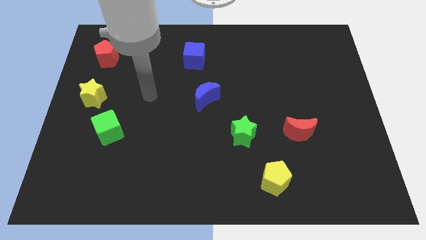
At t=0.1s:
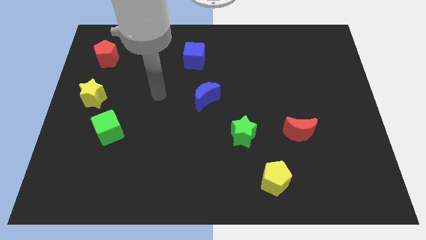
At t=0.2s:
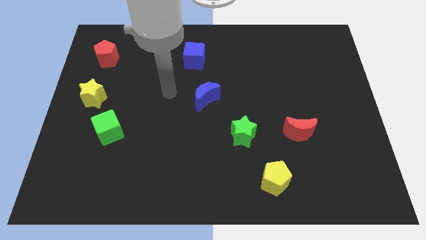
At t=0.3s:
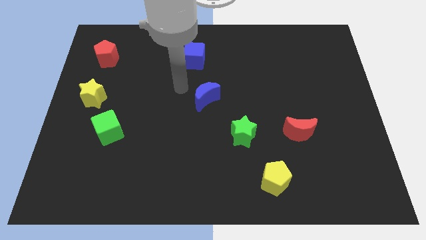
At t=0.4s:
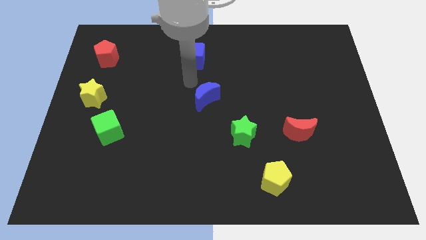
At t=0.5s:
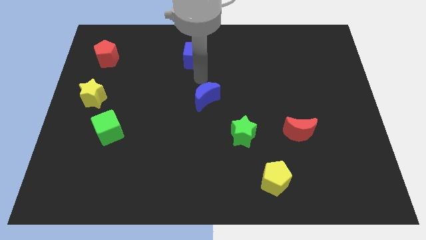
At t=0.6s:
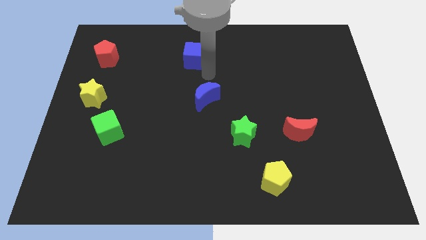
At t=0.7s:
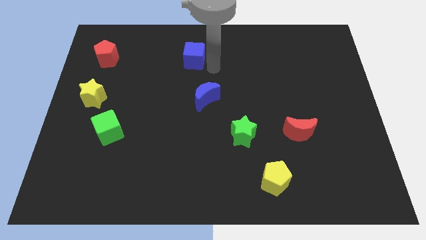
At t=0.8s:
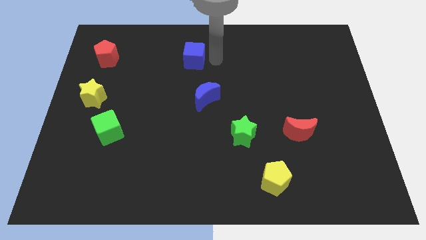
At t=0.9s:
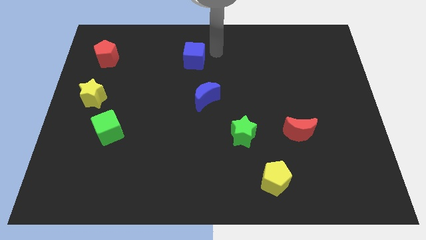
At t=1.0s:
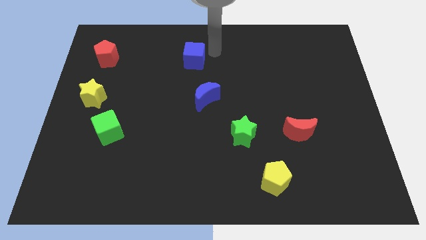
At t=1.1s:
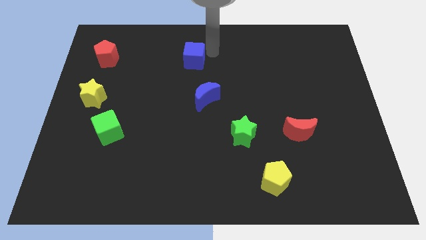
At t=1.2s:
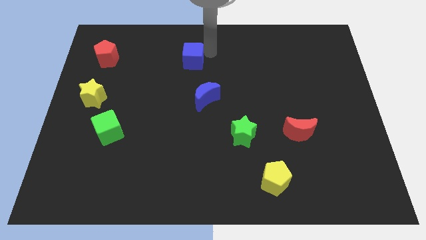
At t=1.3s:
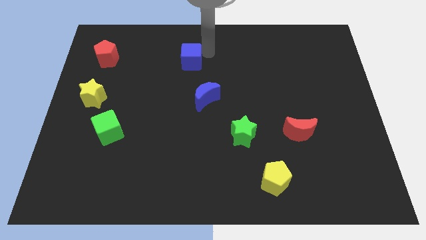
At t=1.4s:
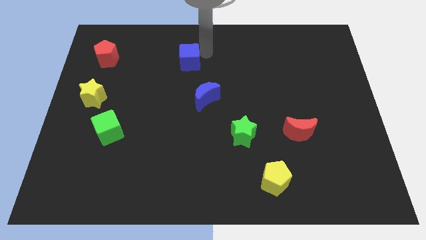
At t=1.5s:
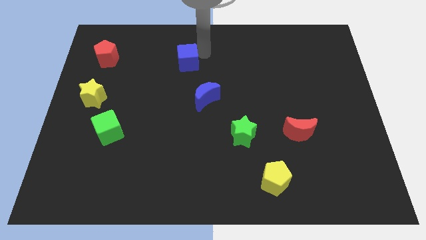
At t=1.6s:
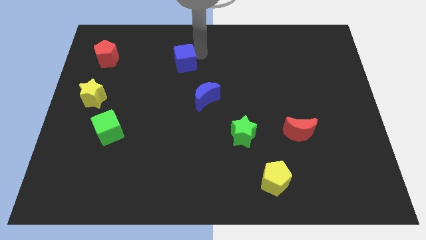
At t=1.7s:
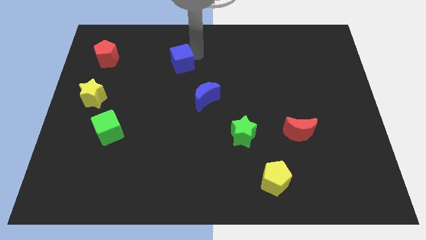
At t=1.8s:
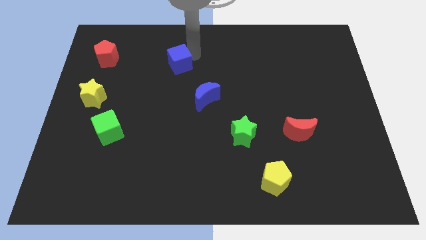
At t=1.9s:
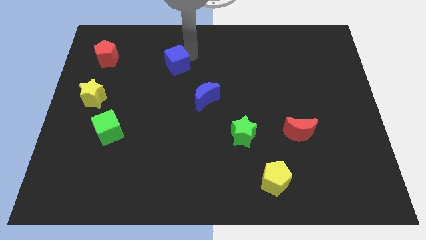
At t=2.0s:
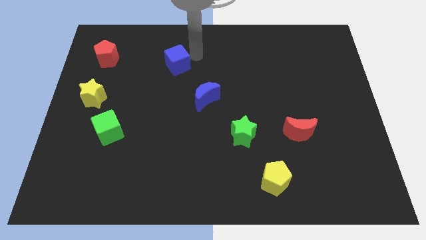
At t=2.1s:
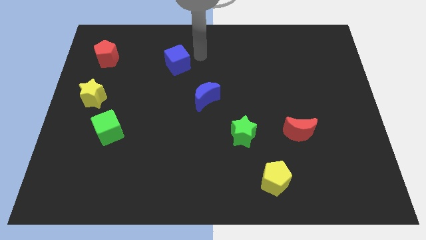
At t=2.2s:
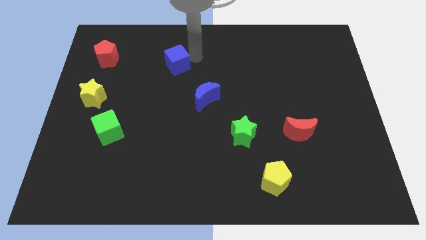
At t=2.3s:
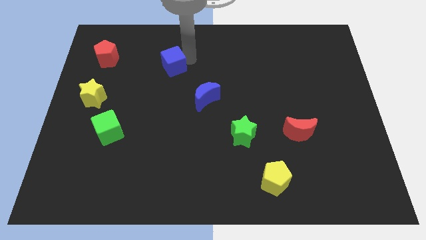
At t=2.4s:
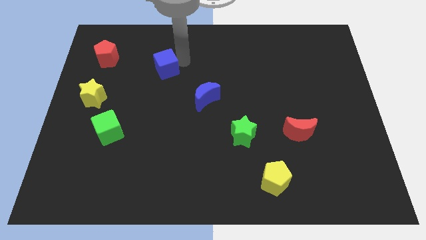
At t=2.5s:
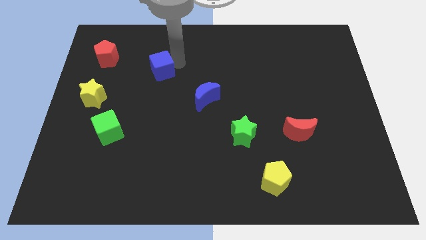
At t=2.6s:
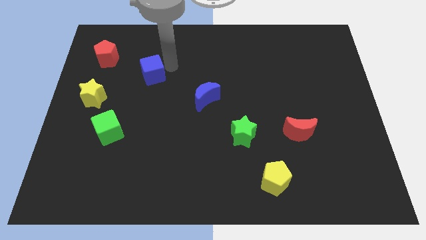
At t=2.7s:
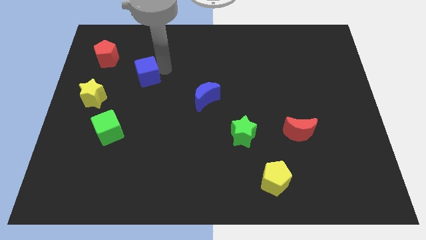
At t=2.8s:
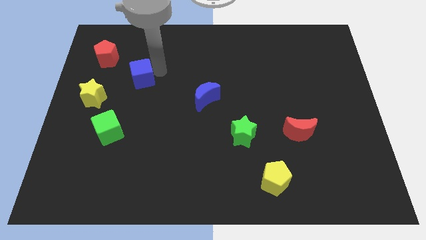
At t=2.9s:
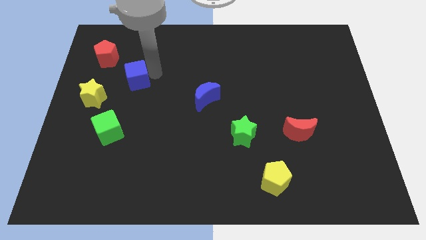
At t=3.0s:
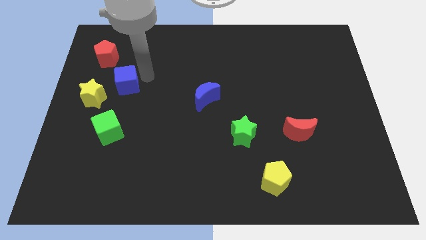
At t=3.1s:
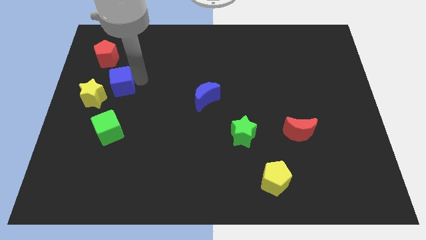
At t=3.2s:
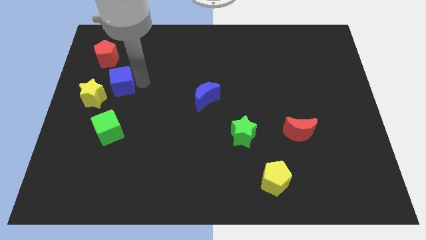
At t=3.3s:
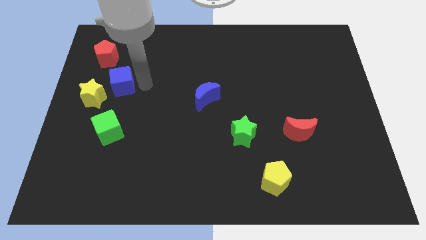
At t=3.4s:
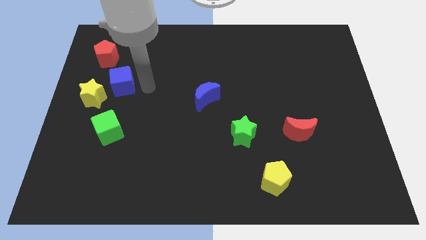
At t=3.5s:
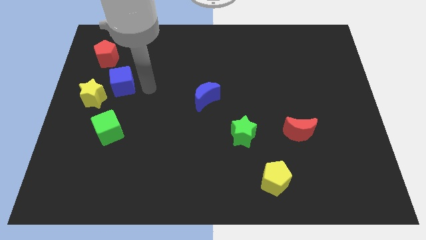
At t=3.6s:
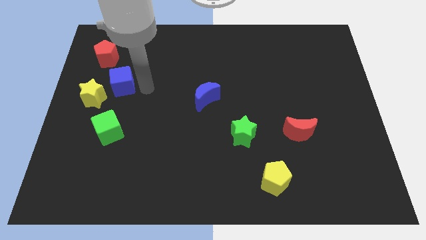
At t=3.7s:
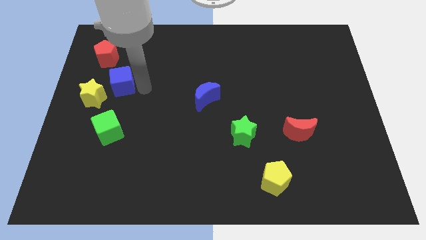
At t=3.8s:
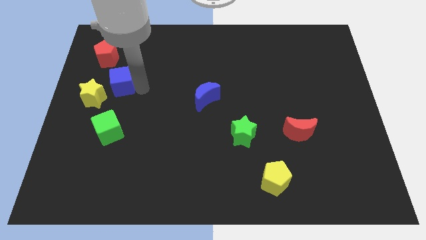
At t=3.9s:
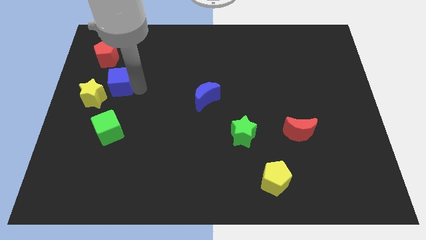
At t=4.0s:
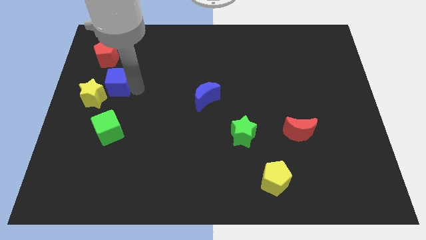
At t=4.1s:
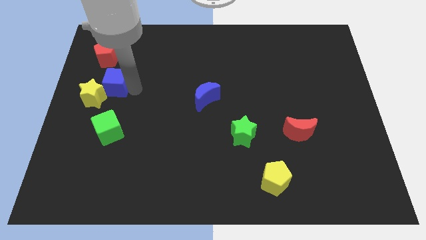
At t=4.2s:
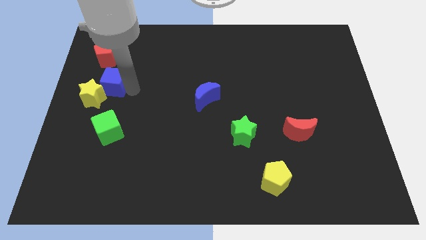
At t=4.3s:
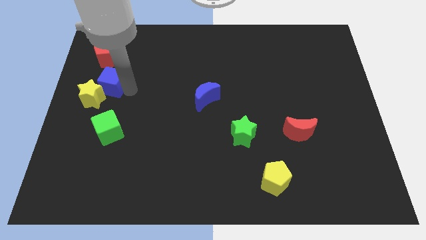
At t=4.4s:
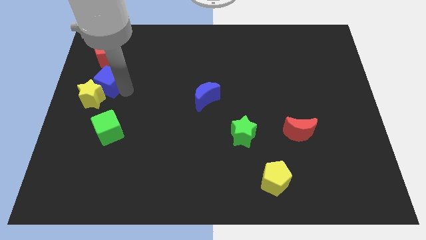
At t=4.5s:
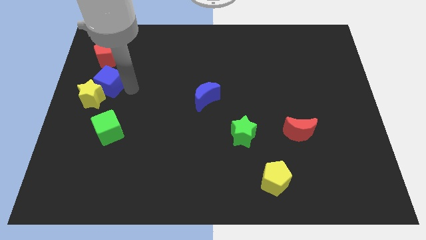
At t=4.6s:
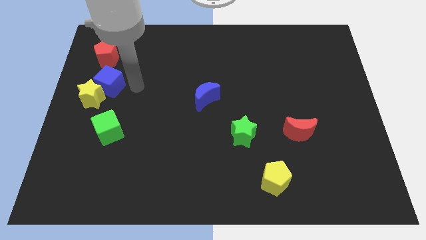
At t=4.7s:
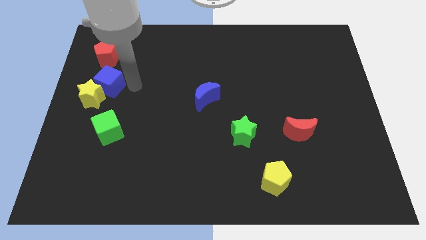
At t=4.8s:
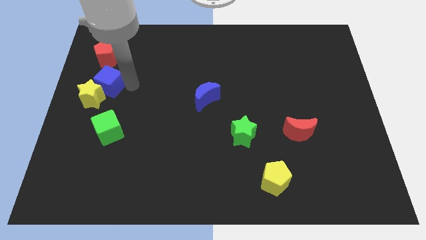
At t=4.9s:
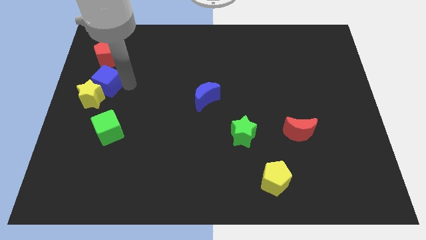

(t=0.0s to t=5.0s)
put the blue cube to the left side of the board

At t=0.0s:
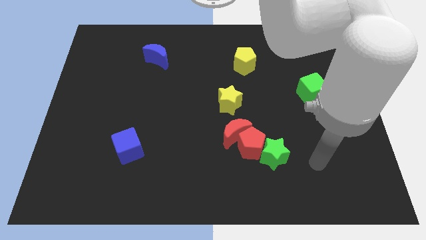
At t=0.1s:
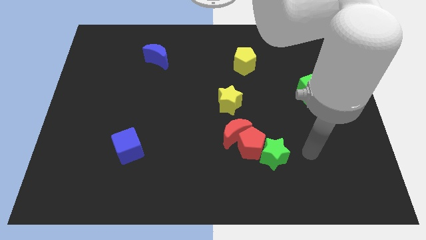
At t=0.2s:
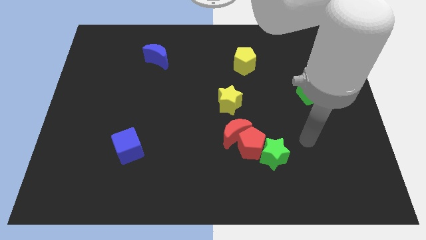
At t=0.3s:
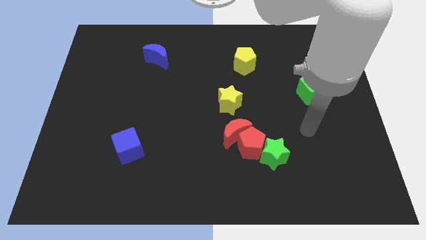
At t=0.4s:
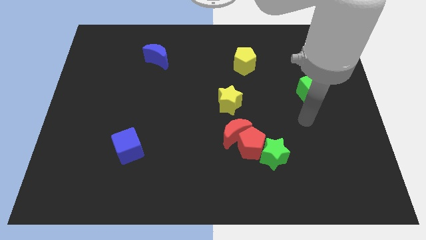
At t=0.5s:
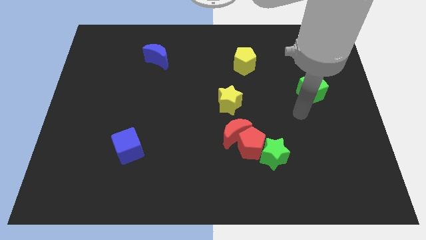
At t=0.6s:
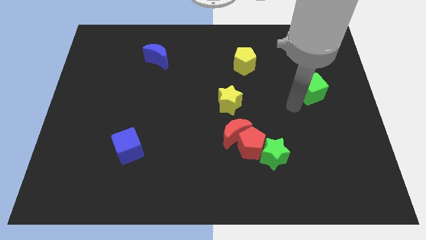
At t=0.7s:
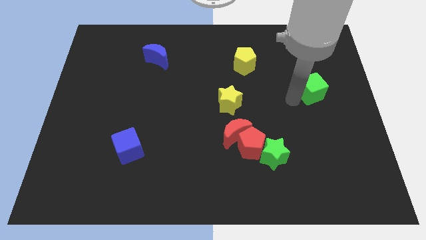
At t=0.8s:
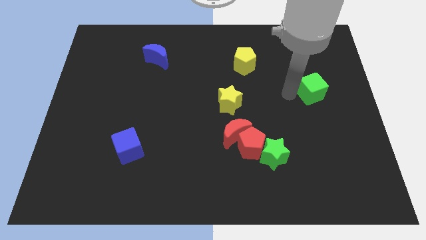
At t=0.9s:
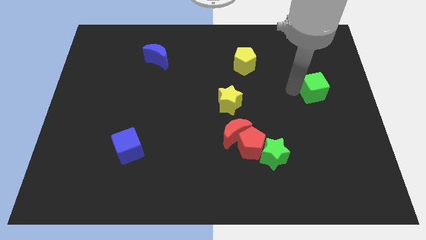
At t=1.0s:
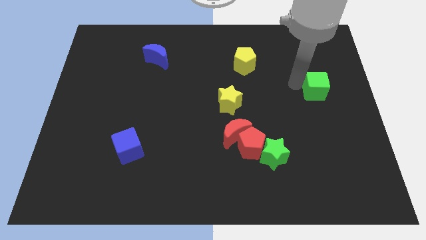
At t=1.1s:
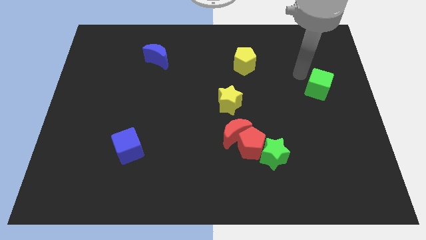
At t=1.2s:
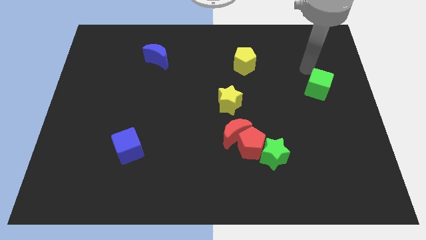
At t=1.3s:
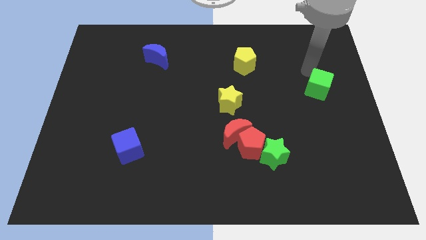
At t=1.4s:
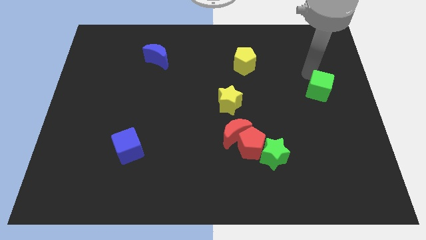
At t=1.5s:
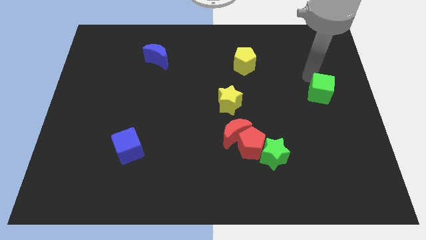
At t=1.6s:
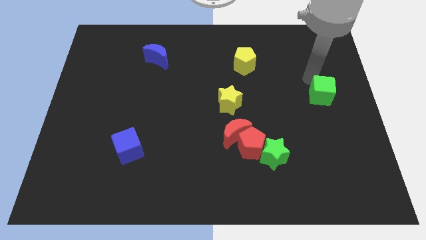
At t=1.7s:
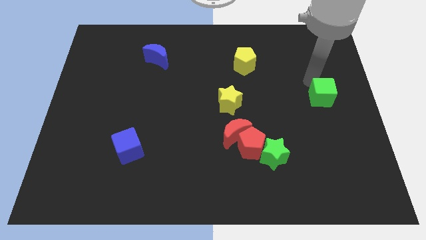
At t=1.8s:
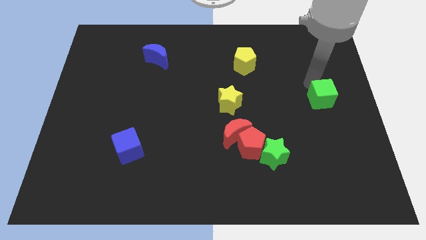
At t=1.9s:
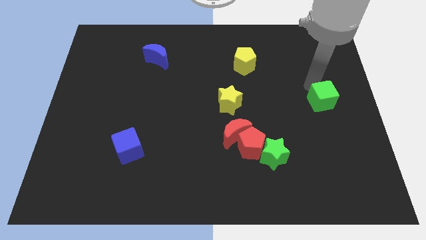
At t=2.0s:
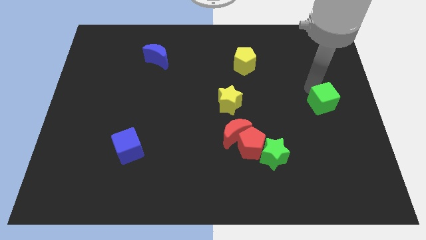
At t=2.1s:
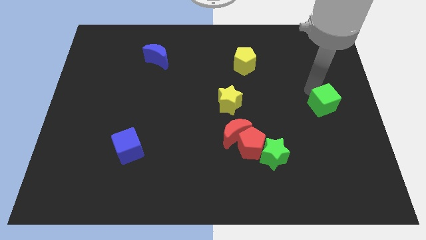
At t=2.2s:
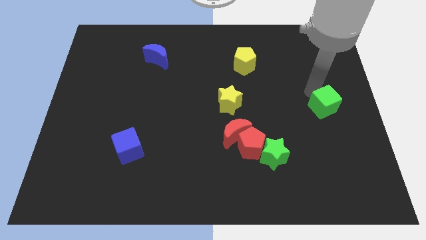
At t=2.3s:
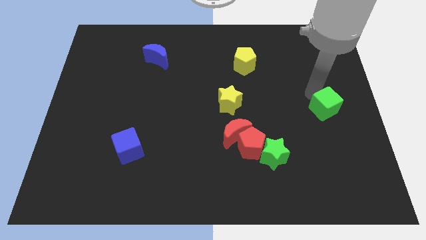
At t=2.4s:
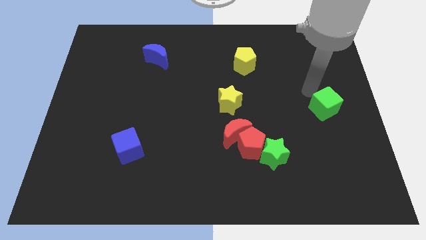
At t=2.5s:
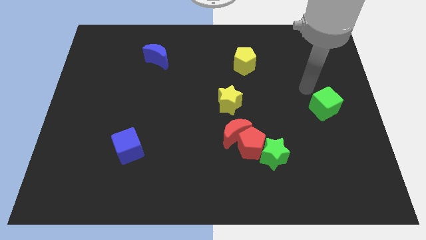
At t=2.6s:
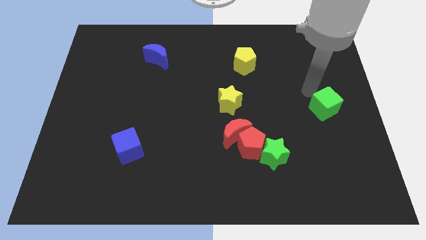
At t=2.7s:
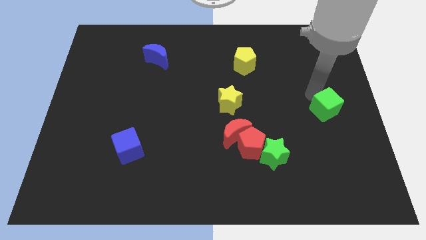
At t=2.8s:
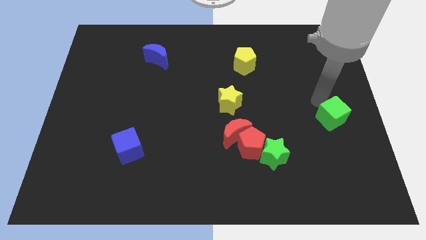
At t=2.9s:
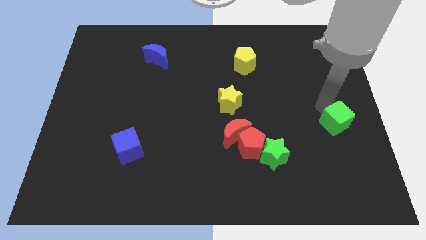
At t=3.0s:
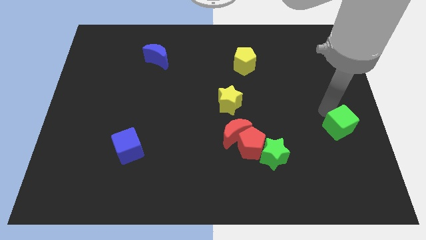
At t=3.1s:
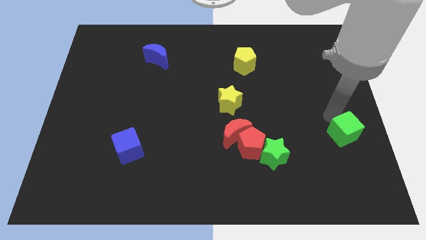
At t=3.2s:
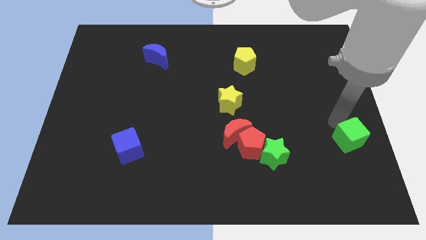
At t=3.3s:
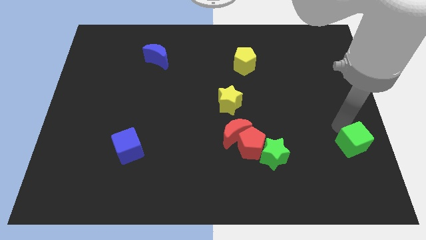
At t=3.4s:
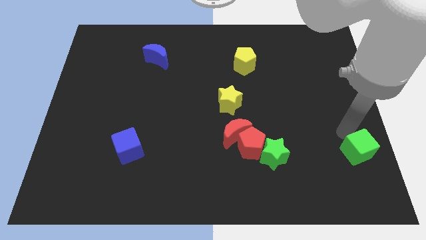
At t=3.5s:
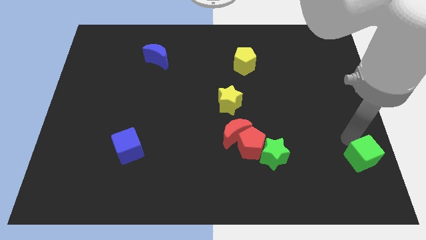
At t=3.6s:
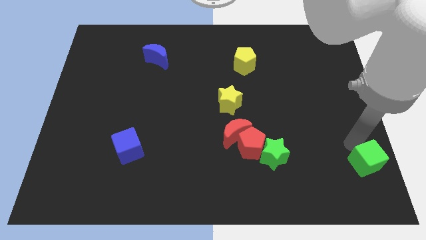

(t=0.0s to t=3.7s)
move the green cube to the bottom right
